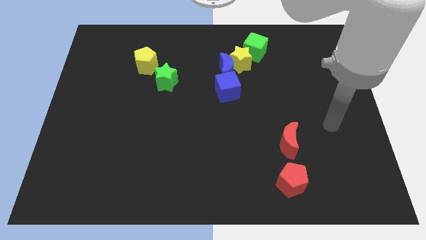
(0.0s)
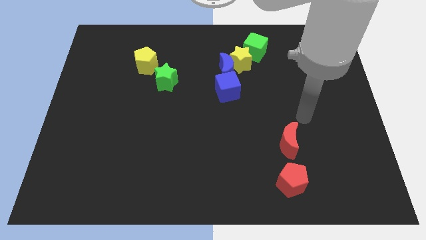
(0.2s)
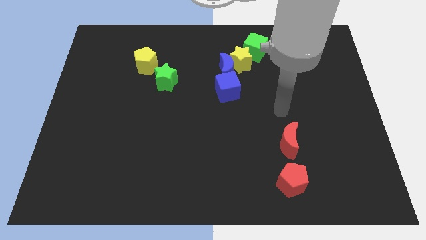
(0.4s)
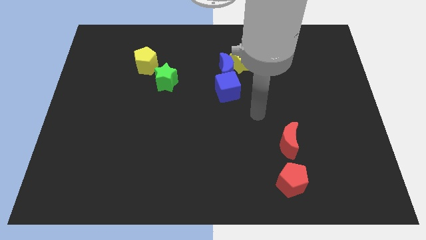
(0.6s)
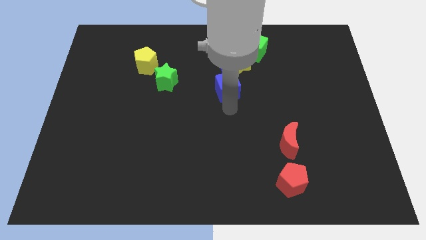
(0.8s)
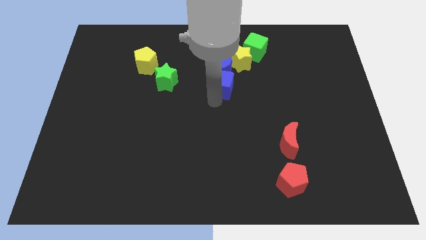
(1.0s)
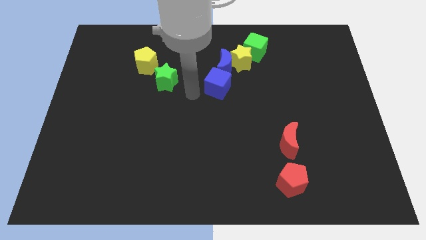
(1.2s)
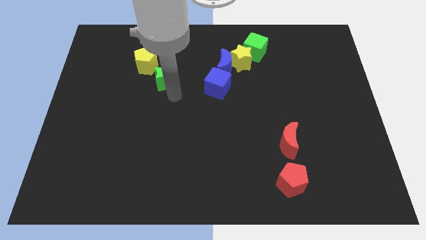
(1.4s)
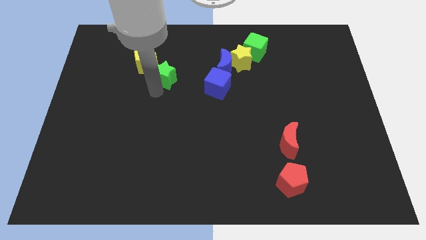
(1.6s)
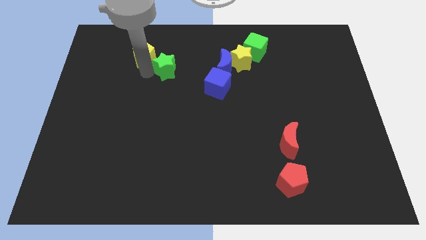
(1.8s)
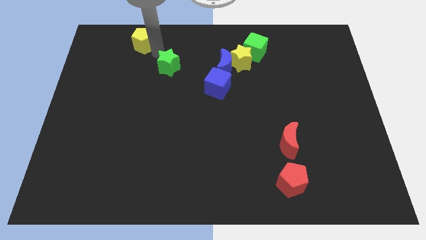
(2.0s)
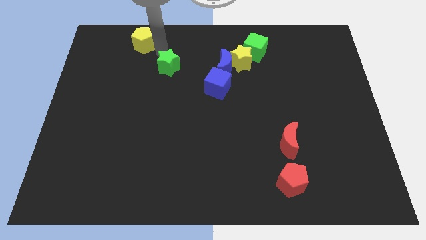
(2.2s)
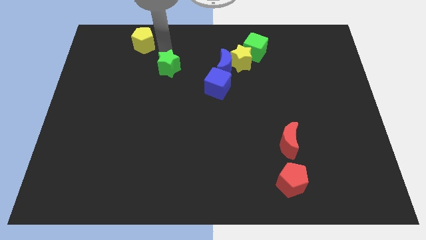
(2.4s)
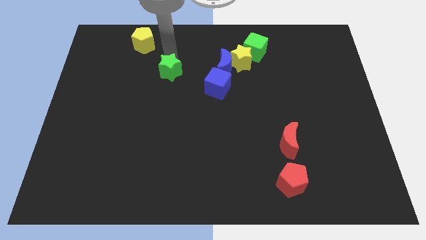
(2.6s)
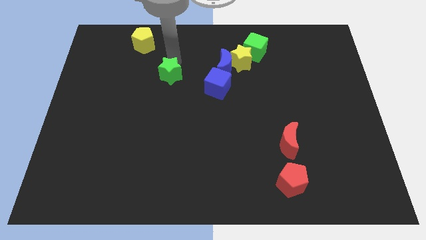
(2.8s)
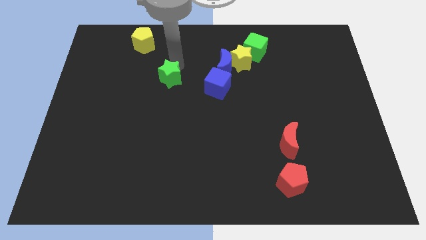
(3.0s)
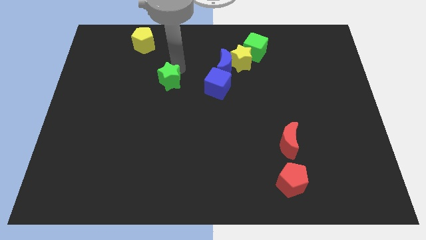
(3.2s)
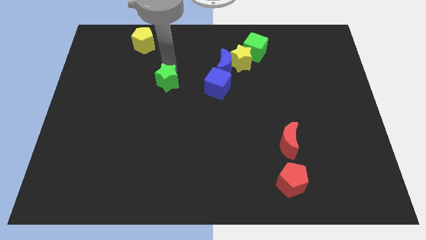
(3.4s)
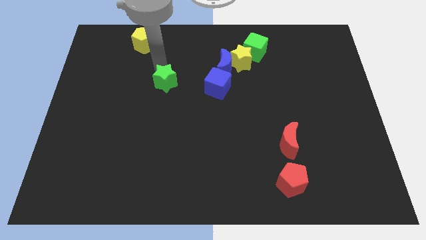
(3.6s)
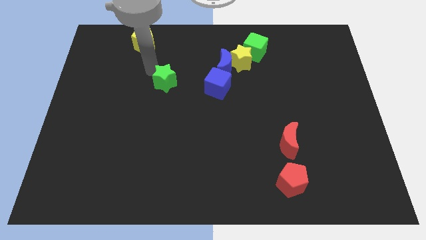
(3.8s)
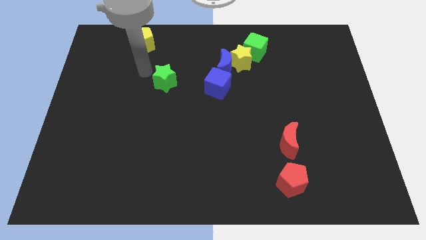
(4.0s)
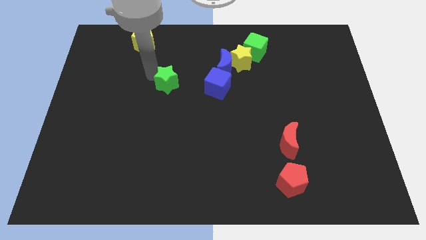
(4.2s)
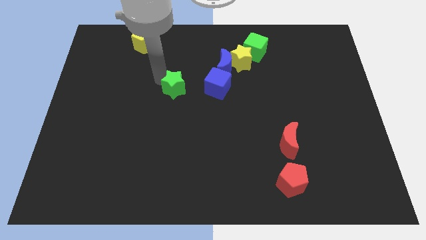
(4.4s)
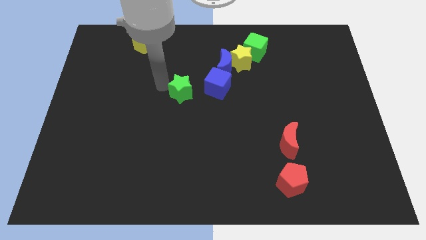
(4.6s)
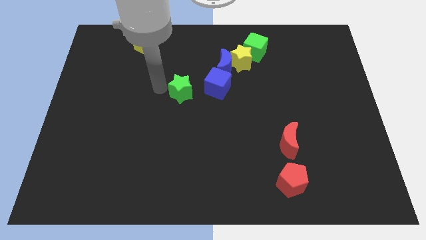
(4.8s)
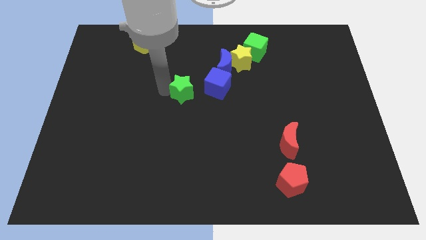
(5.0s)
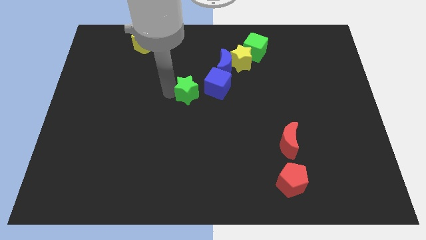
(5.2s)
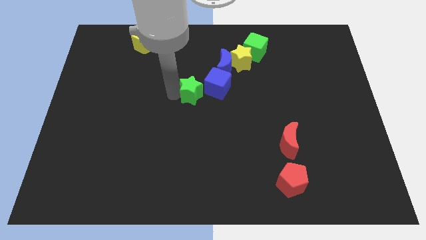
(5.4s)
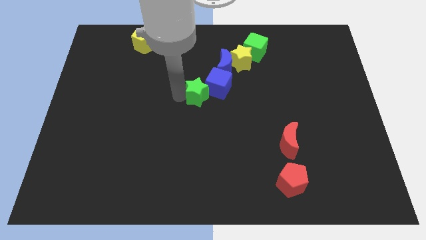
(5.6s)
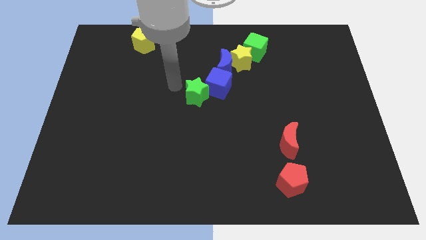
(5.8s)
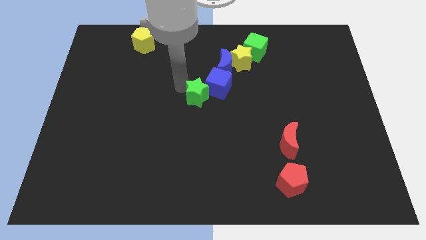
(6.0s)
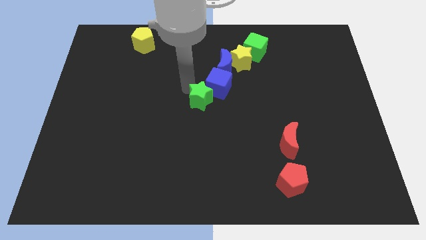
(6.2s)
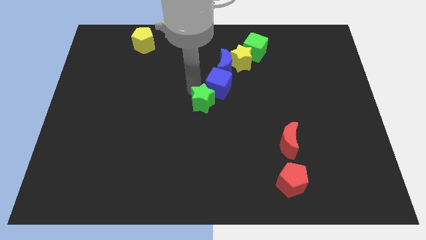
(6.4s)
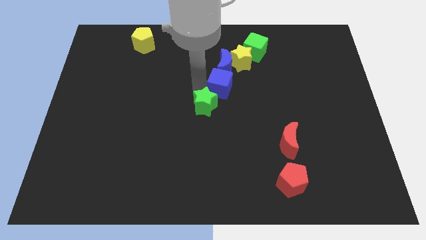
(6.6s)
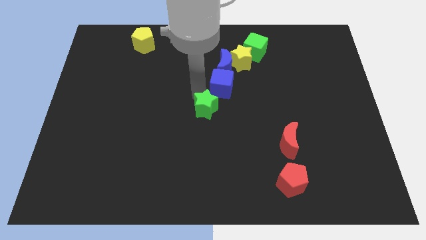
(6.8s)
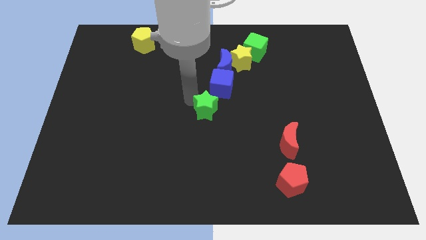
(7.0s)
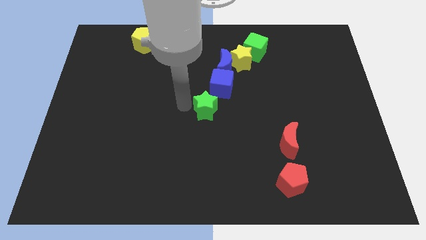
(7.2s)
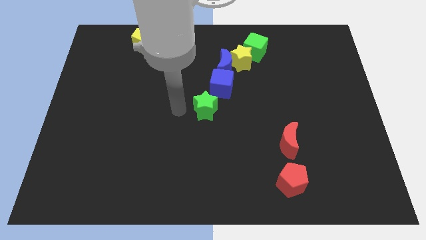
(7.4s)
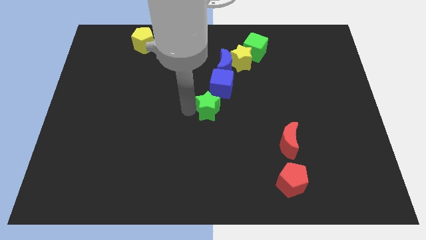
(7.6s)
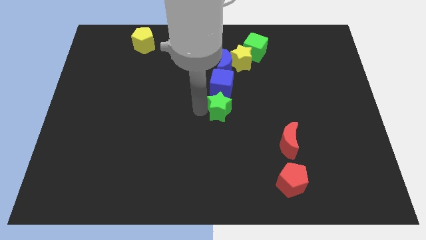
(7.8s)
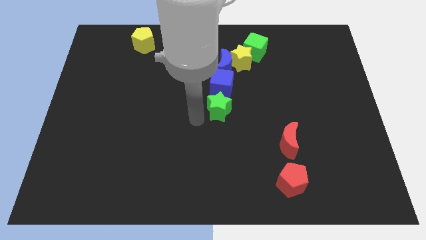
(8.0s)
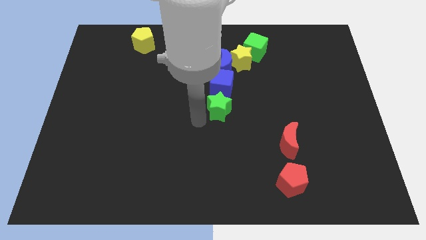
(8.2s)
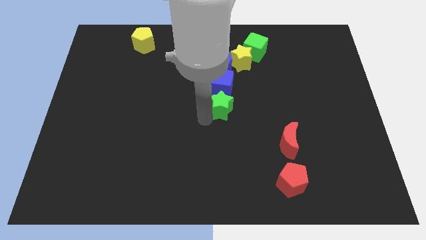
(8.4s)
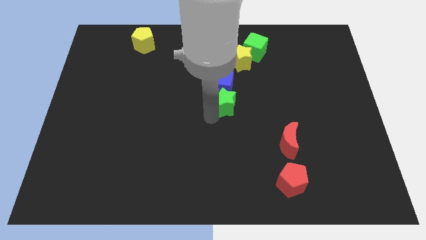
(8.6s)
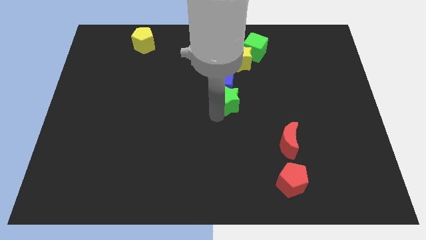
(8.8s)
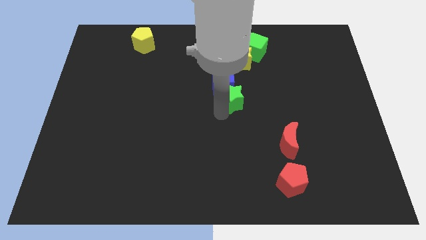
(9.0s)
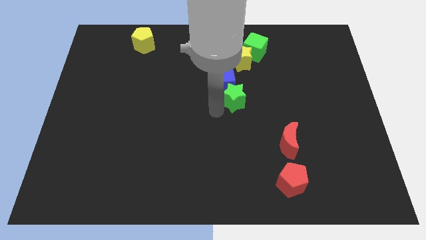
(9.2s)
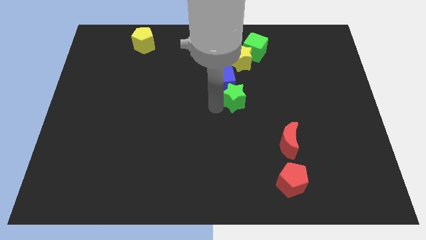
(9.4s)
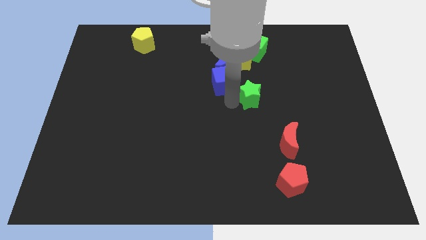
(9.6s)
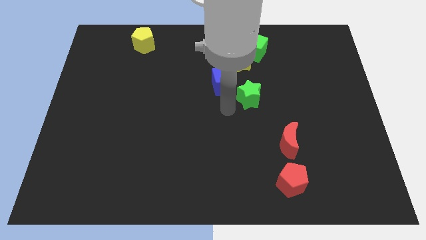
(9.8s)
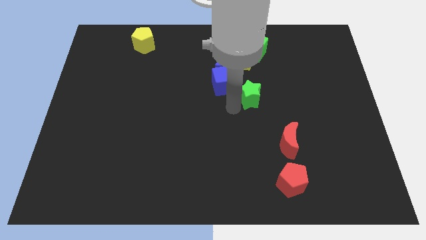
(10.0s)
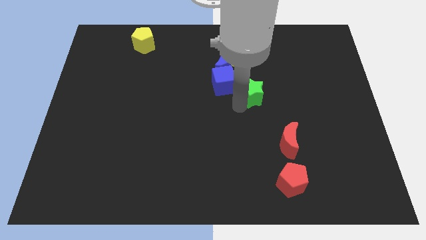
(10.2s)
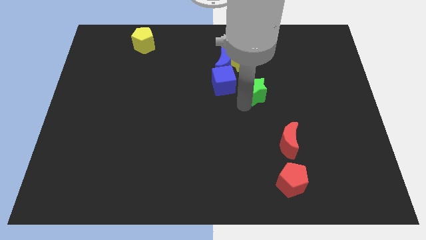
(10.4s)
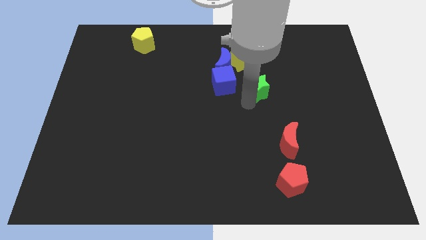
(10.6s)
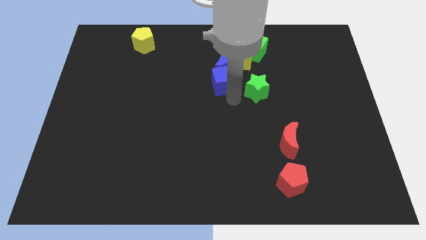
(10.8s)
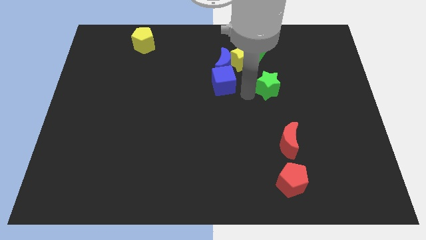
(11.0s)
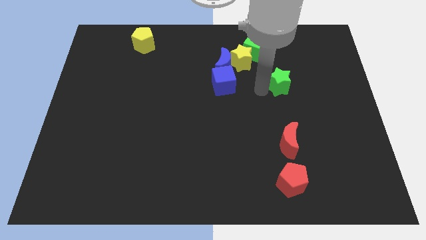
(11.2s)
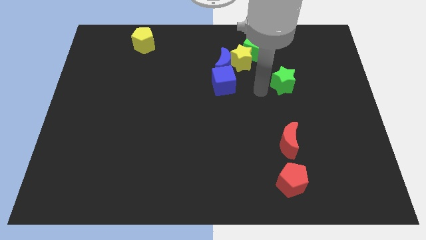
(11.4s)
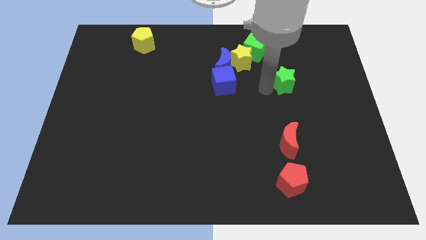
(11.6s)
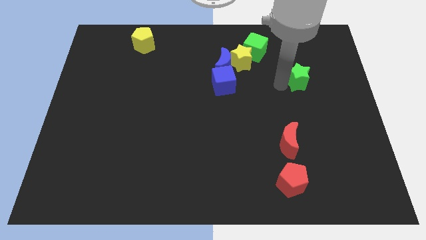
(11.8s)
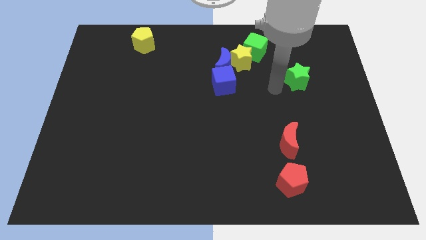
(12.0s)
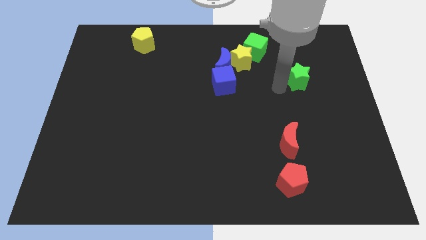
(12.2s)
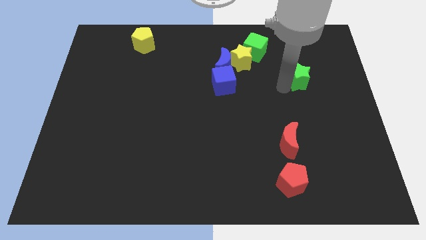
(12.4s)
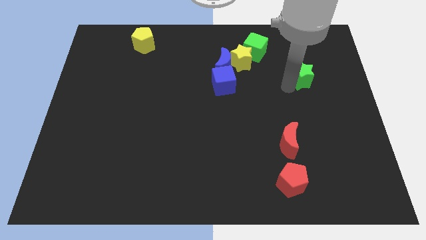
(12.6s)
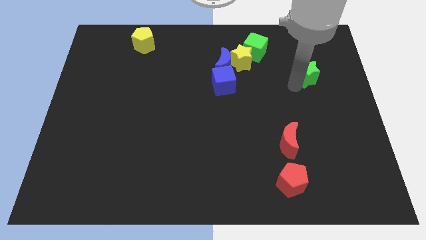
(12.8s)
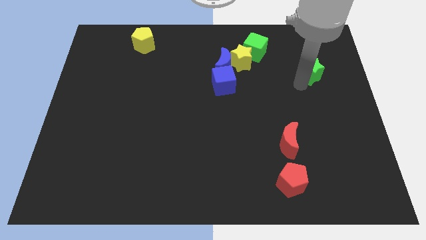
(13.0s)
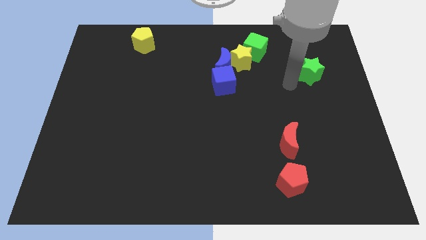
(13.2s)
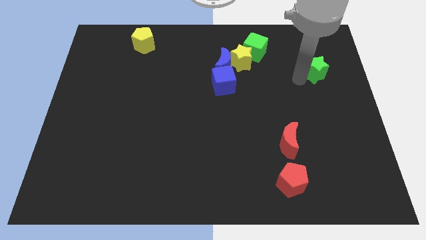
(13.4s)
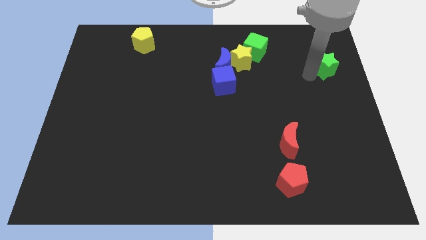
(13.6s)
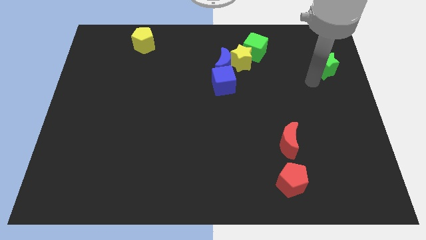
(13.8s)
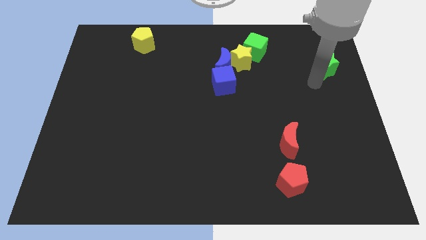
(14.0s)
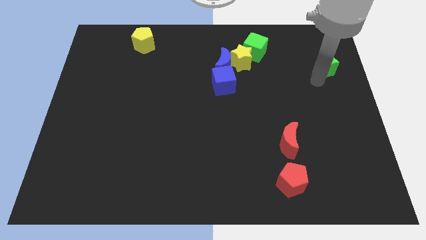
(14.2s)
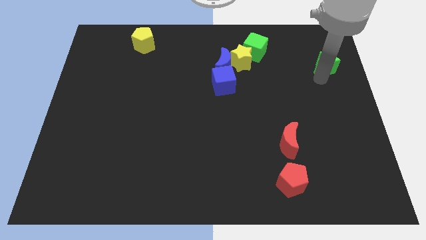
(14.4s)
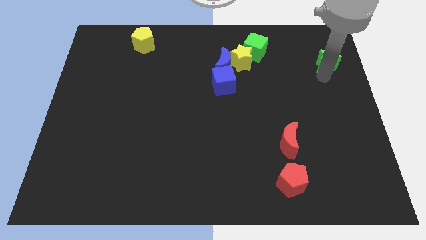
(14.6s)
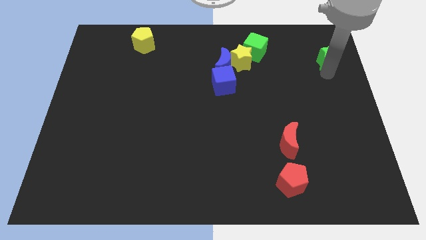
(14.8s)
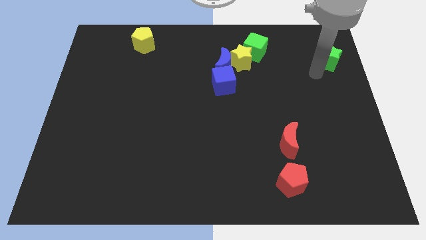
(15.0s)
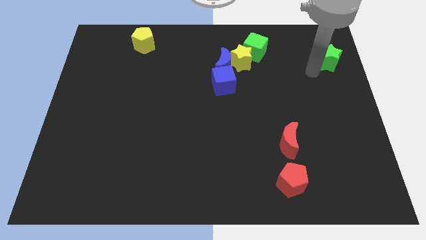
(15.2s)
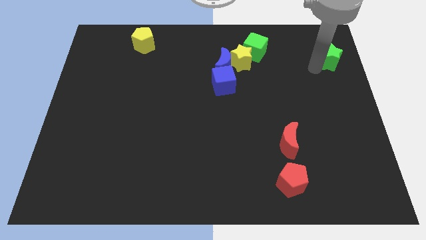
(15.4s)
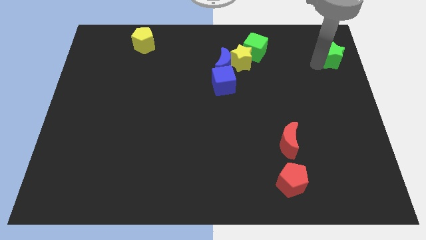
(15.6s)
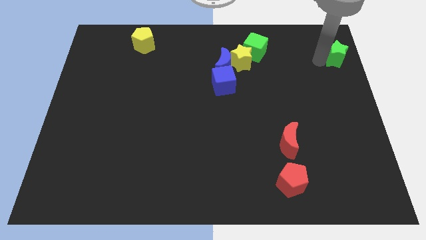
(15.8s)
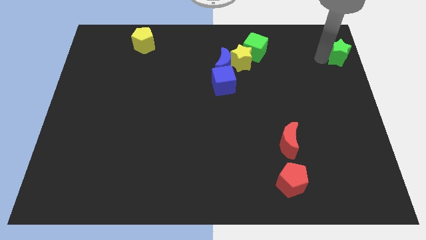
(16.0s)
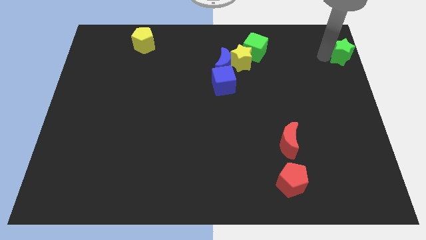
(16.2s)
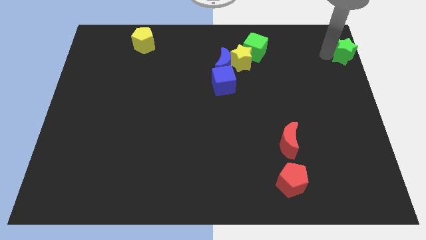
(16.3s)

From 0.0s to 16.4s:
push the green star to the top right of the board
